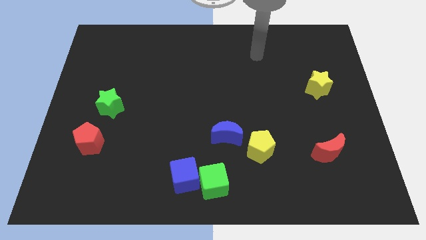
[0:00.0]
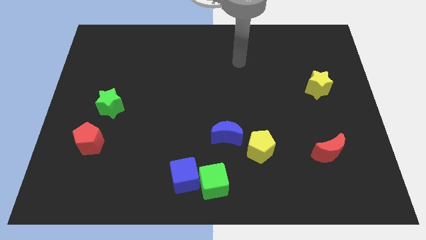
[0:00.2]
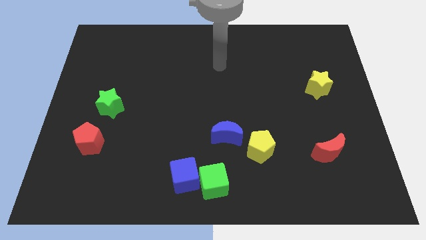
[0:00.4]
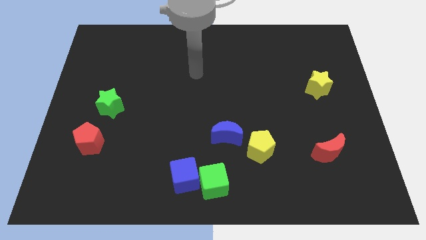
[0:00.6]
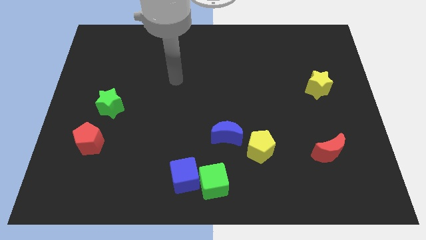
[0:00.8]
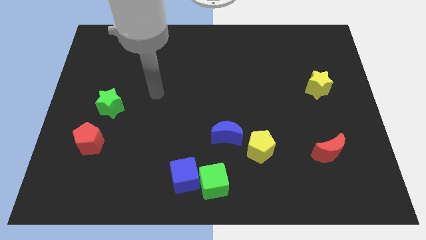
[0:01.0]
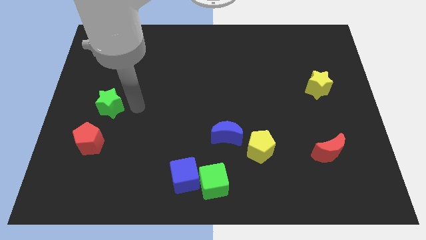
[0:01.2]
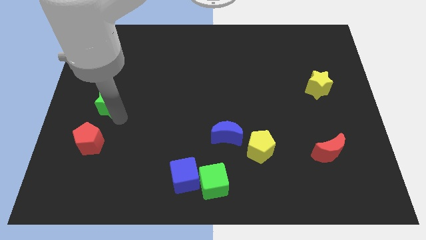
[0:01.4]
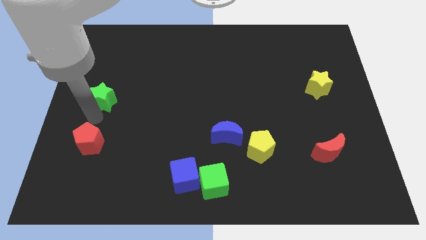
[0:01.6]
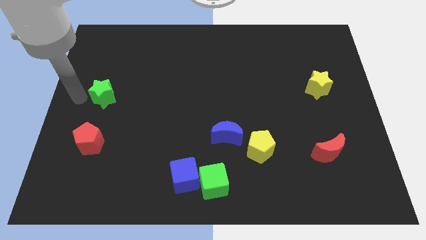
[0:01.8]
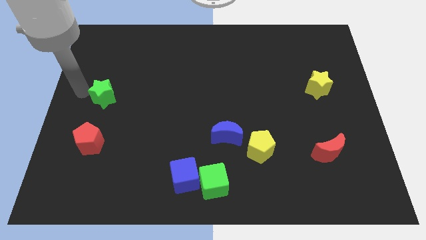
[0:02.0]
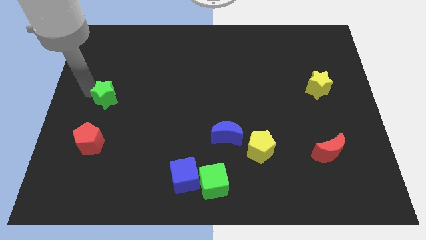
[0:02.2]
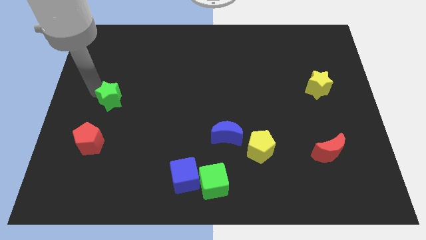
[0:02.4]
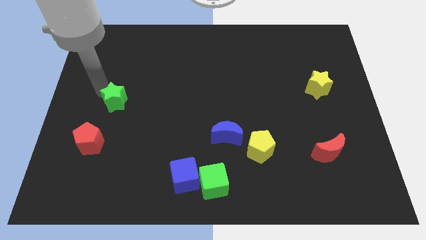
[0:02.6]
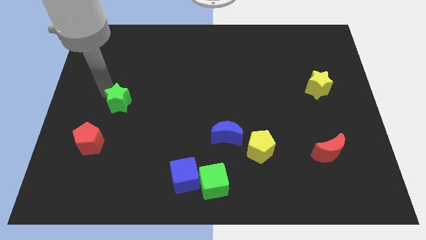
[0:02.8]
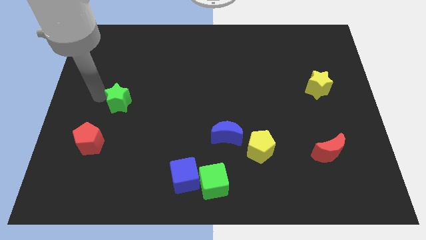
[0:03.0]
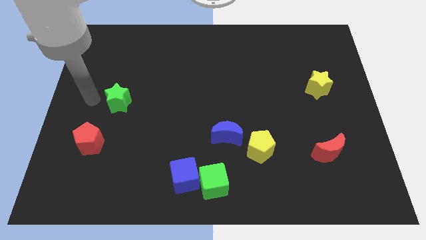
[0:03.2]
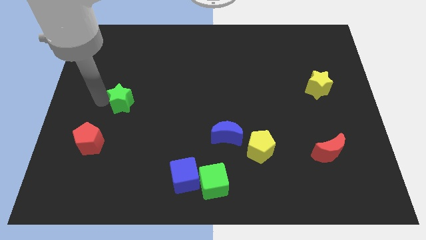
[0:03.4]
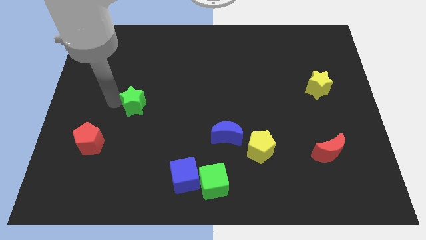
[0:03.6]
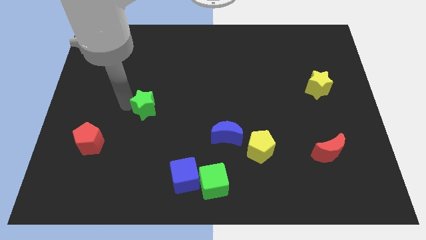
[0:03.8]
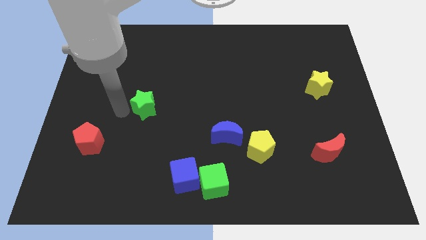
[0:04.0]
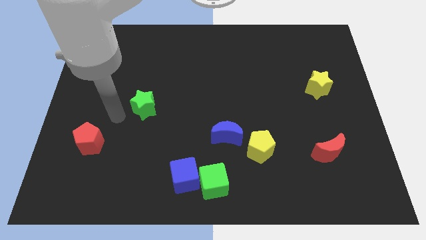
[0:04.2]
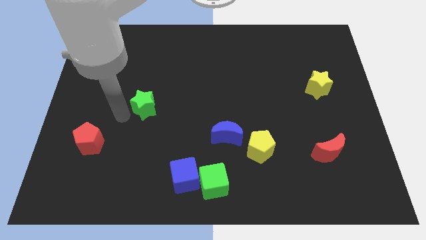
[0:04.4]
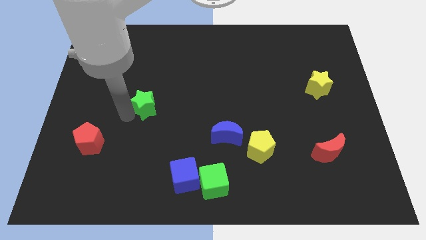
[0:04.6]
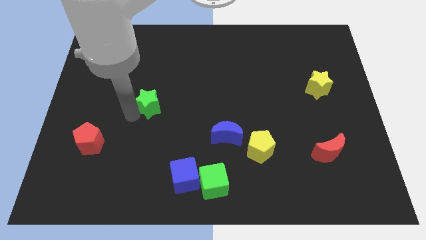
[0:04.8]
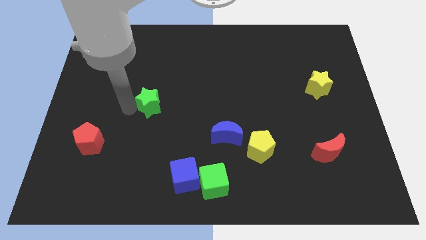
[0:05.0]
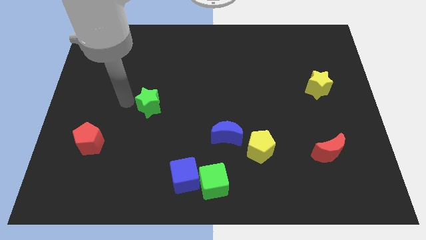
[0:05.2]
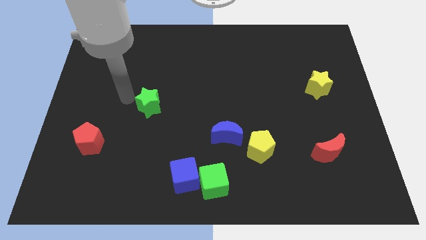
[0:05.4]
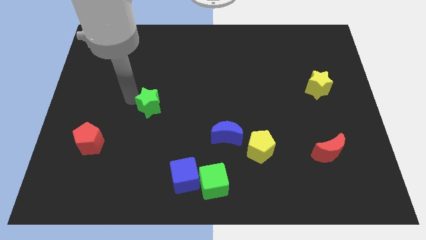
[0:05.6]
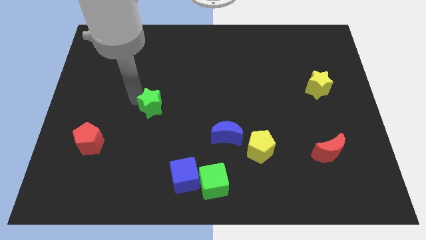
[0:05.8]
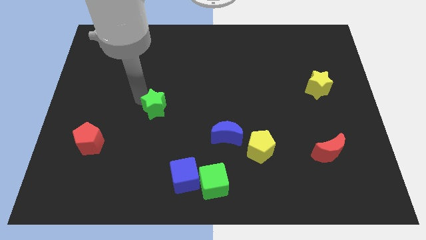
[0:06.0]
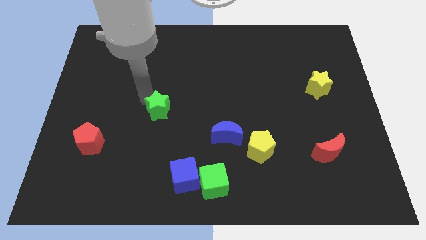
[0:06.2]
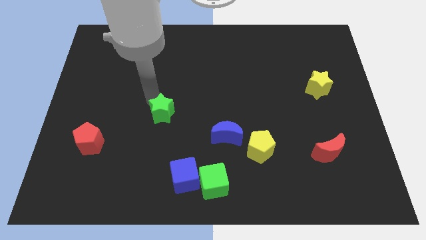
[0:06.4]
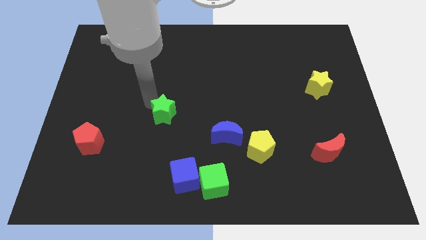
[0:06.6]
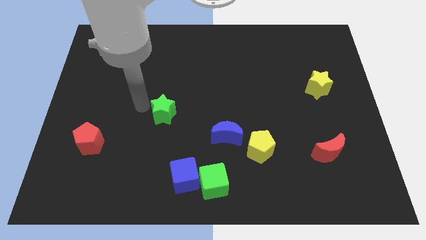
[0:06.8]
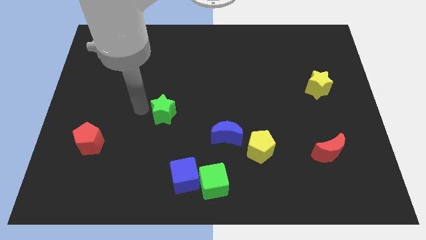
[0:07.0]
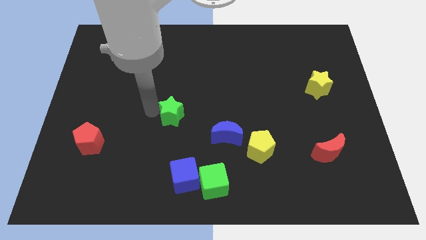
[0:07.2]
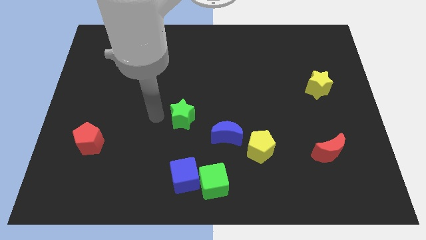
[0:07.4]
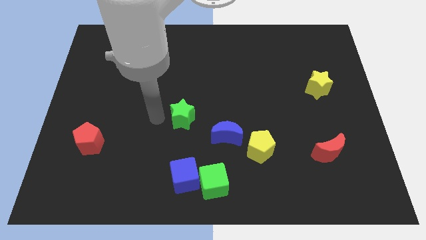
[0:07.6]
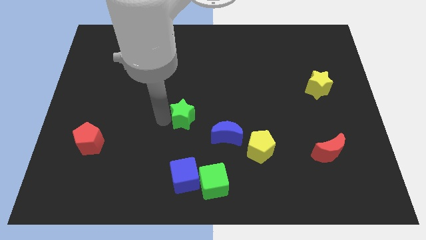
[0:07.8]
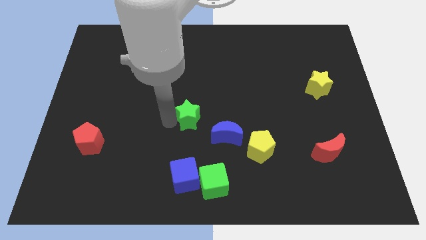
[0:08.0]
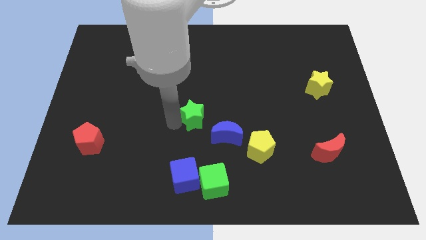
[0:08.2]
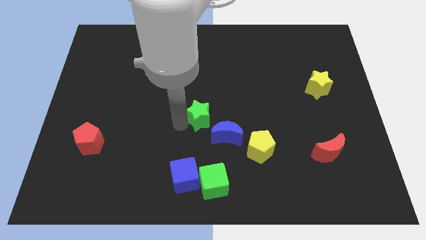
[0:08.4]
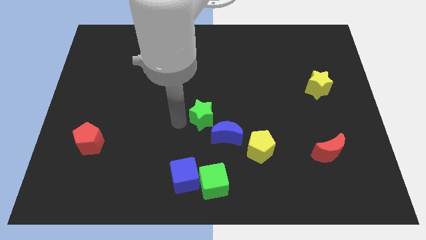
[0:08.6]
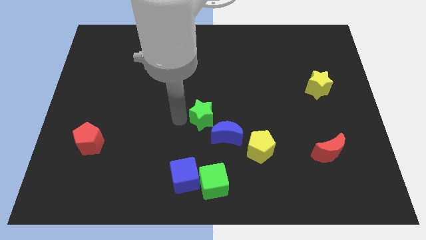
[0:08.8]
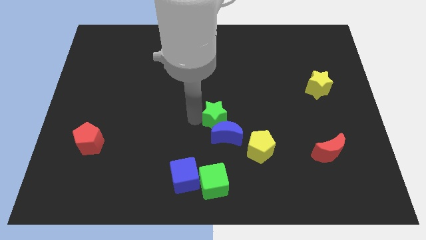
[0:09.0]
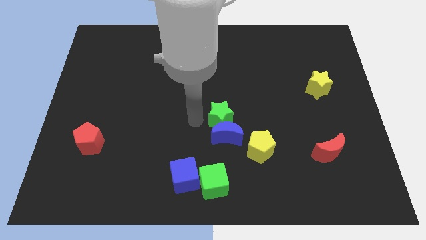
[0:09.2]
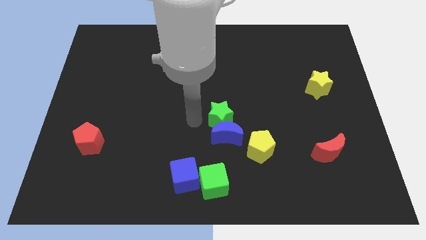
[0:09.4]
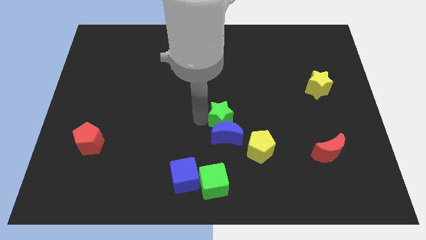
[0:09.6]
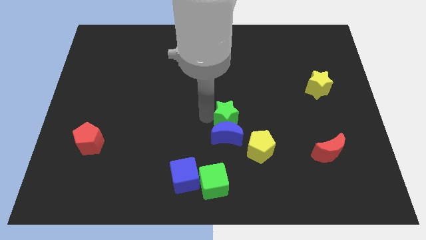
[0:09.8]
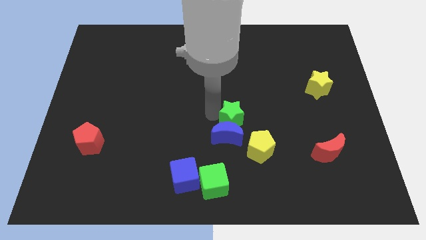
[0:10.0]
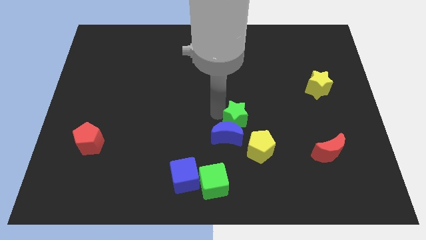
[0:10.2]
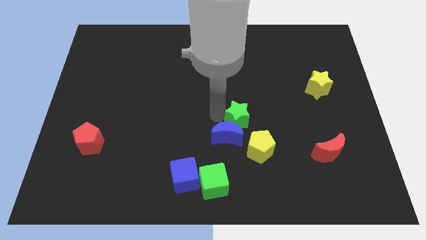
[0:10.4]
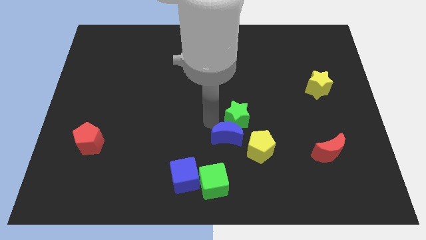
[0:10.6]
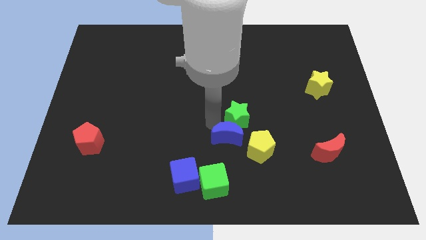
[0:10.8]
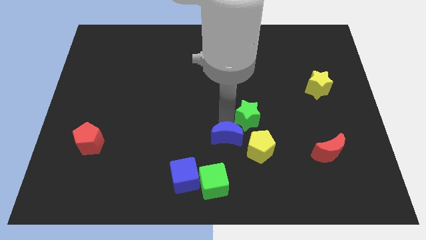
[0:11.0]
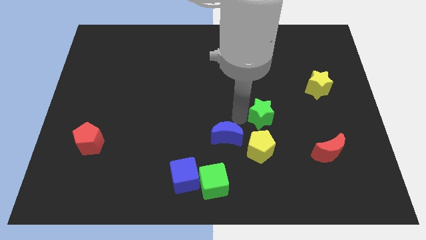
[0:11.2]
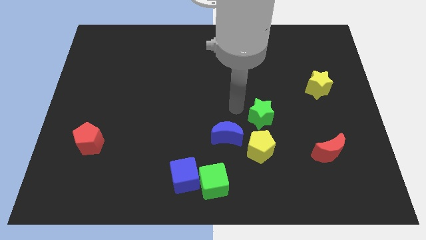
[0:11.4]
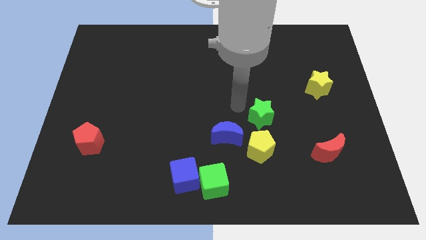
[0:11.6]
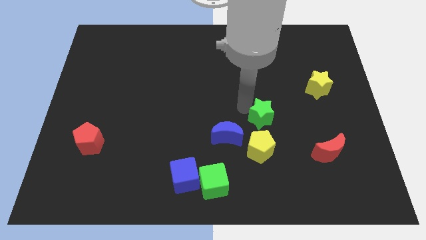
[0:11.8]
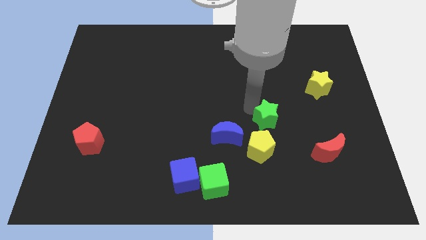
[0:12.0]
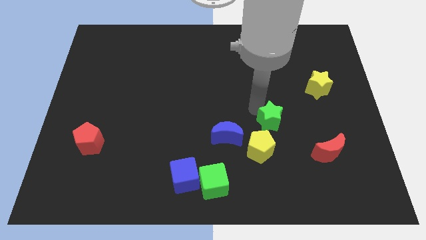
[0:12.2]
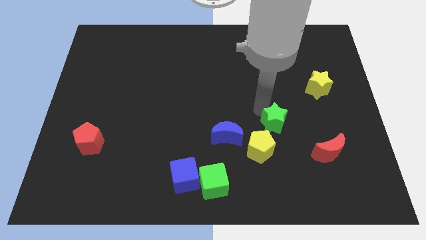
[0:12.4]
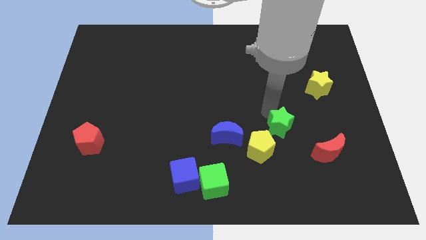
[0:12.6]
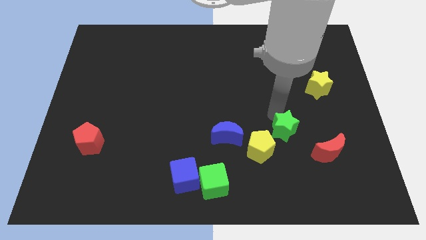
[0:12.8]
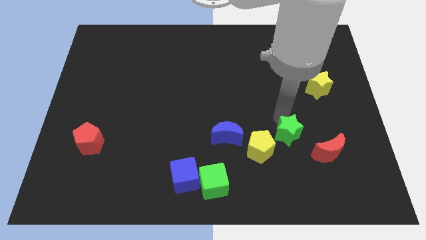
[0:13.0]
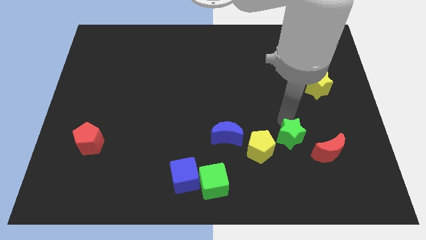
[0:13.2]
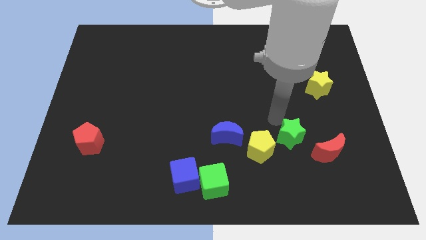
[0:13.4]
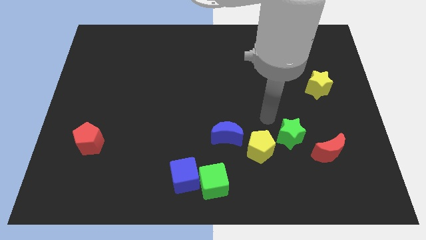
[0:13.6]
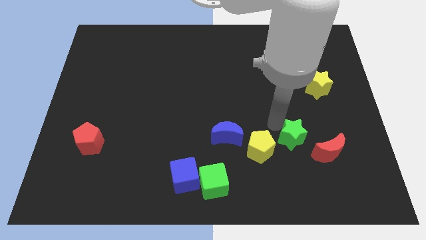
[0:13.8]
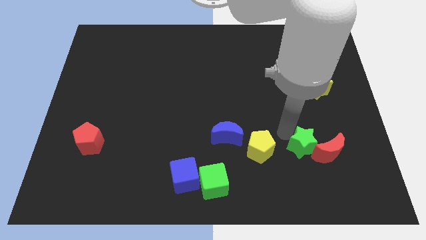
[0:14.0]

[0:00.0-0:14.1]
slide the green star next to the red moon
